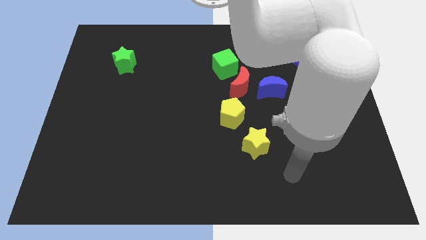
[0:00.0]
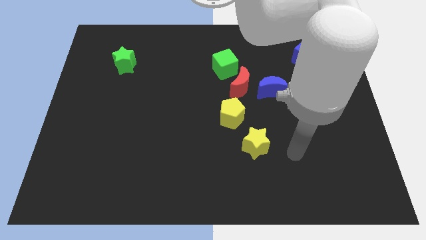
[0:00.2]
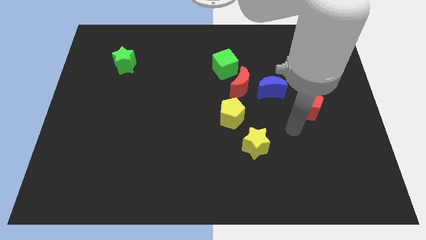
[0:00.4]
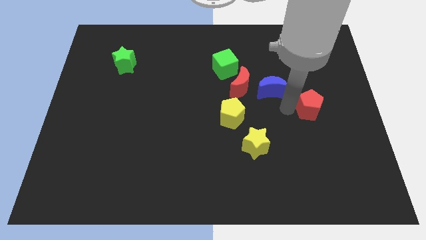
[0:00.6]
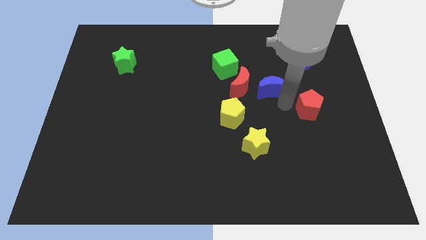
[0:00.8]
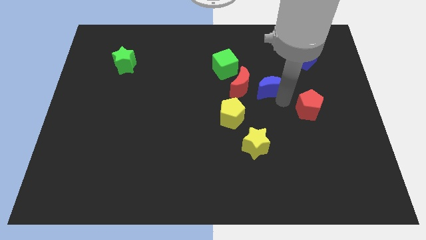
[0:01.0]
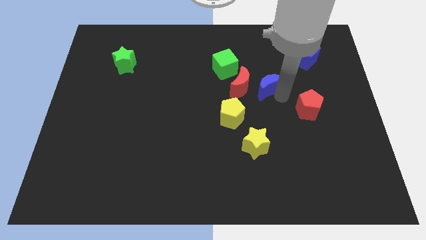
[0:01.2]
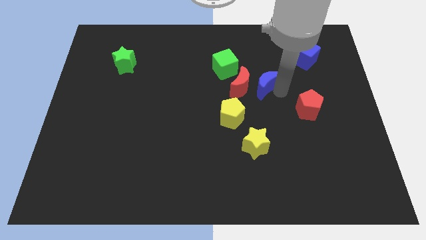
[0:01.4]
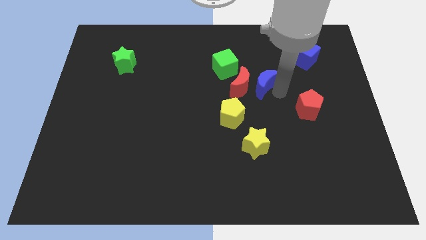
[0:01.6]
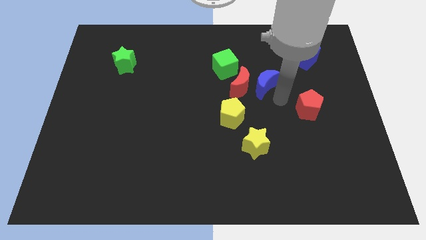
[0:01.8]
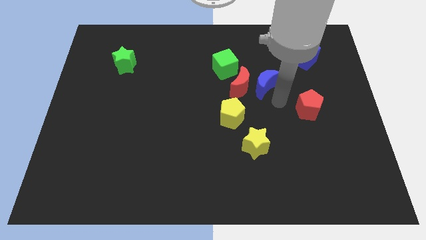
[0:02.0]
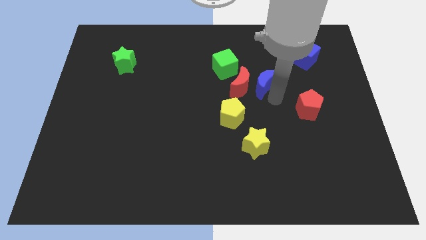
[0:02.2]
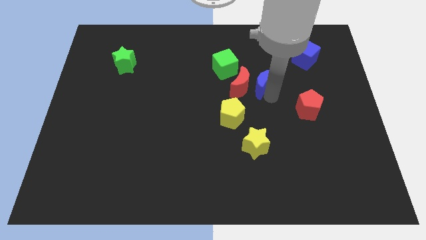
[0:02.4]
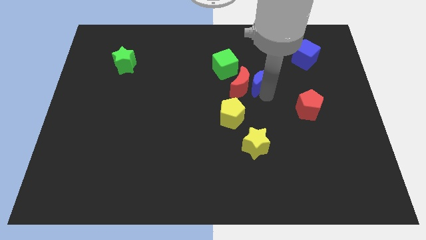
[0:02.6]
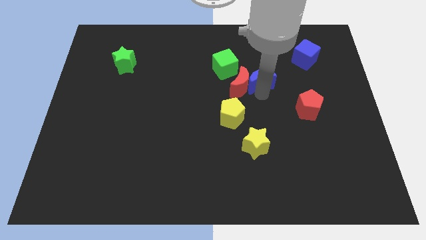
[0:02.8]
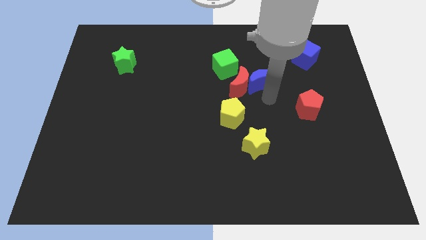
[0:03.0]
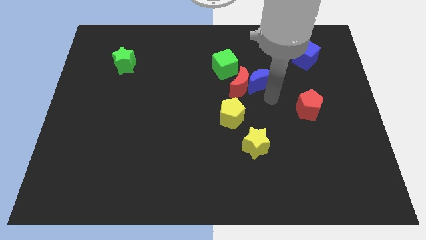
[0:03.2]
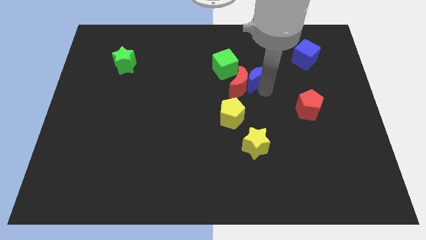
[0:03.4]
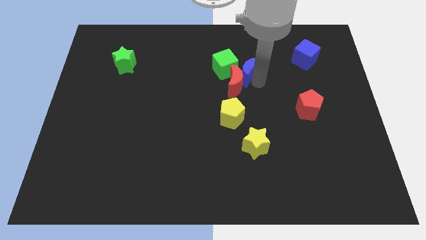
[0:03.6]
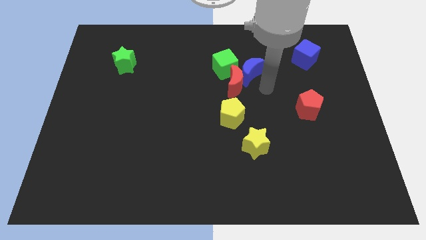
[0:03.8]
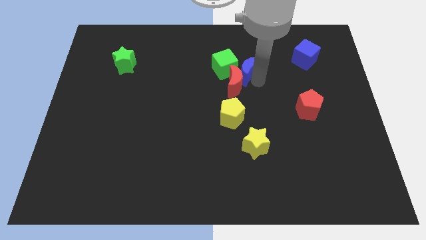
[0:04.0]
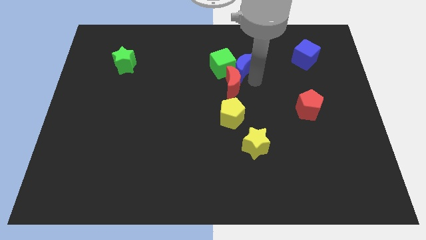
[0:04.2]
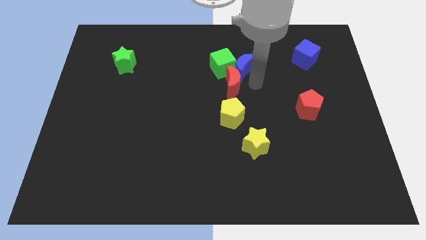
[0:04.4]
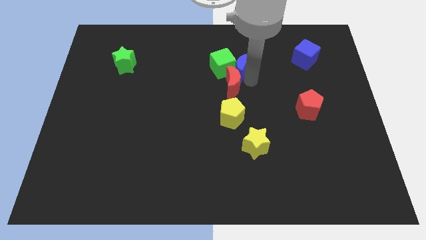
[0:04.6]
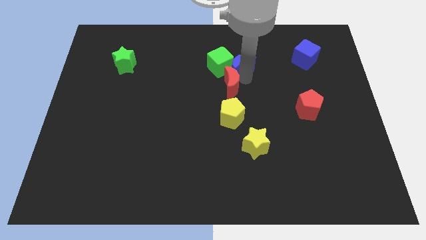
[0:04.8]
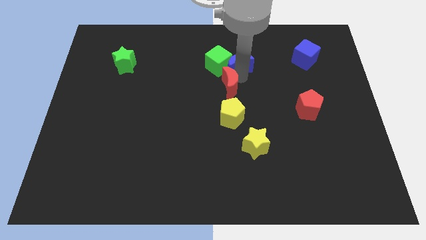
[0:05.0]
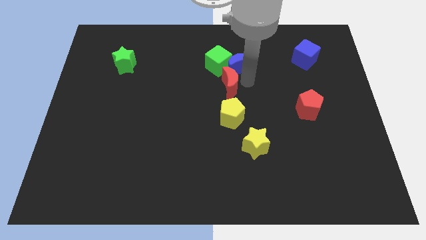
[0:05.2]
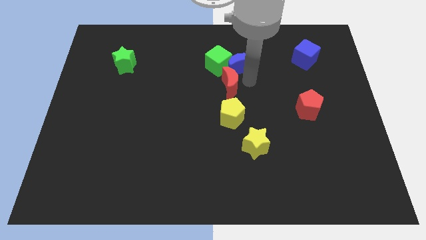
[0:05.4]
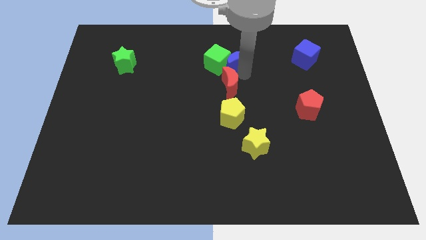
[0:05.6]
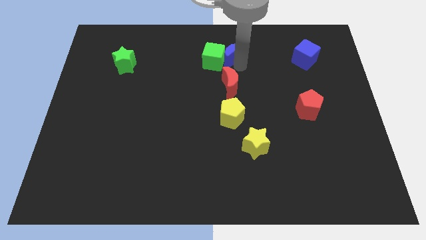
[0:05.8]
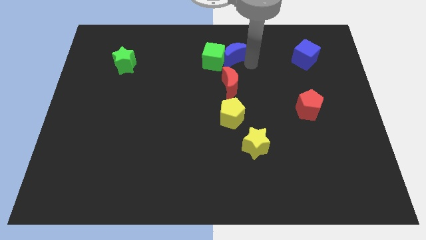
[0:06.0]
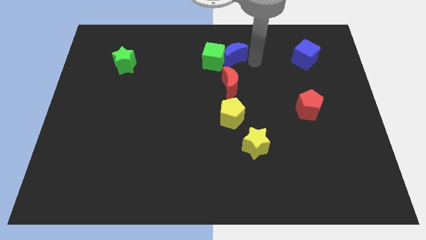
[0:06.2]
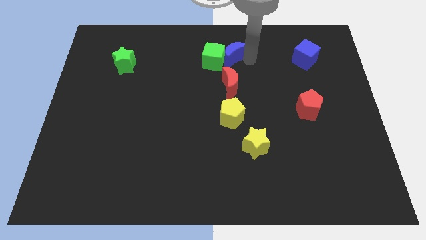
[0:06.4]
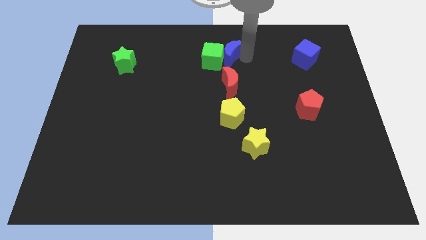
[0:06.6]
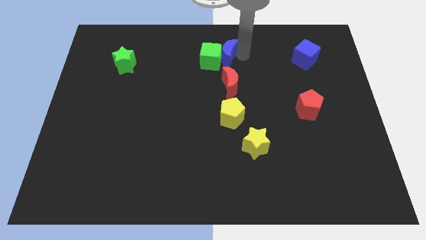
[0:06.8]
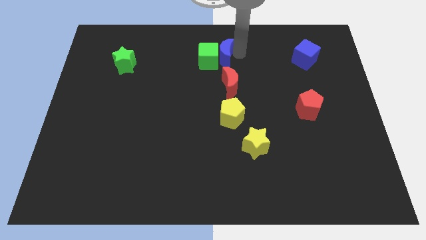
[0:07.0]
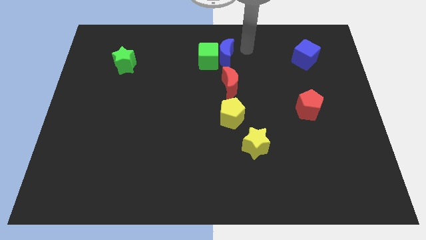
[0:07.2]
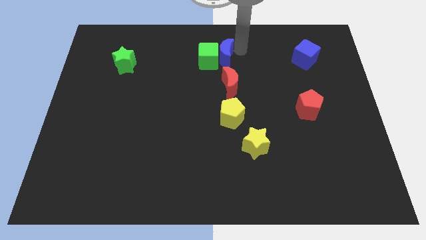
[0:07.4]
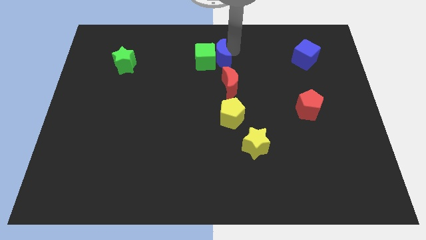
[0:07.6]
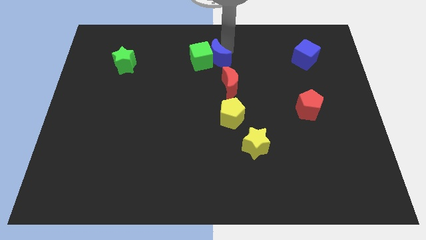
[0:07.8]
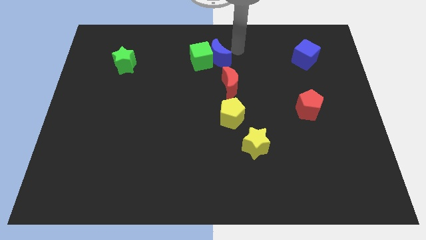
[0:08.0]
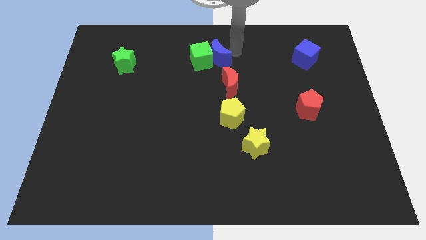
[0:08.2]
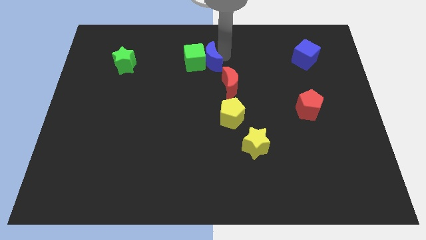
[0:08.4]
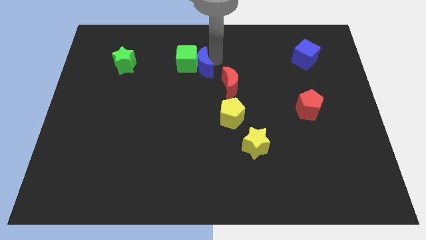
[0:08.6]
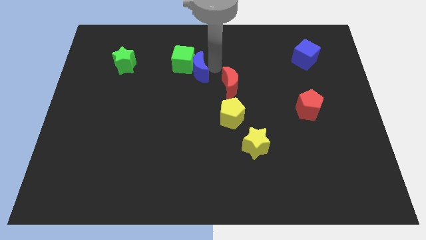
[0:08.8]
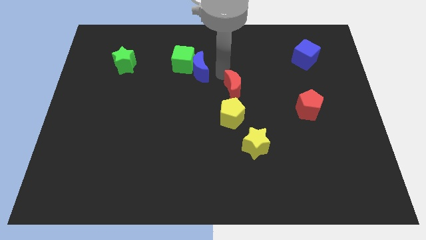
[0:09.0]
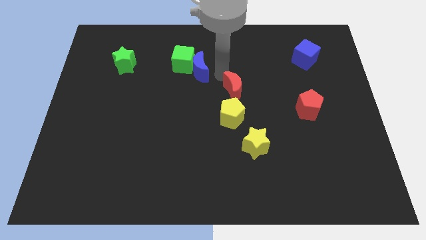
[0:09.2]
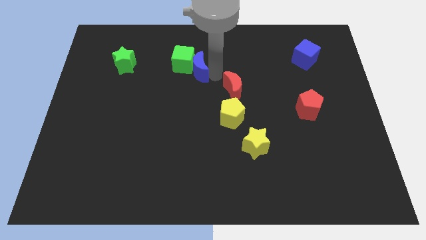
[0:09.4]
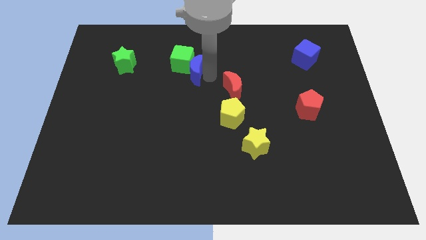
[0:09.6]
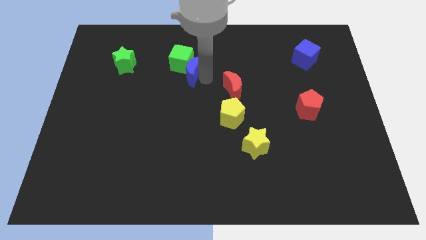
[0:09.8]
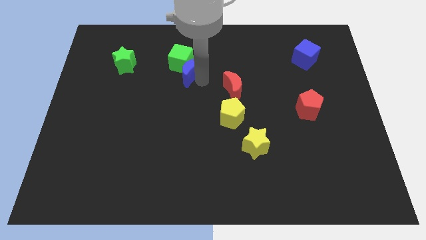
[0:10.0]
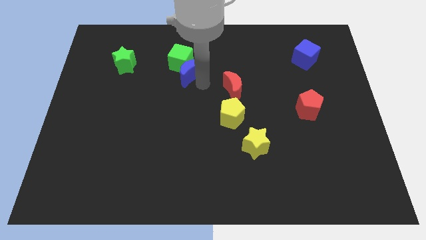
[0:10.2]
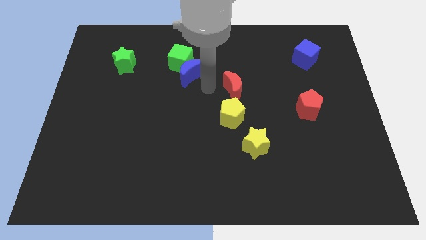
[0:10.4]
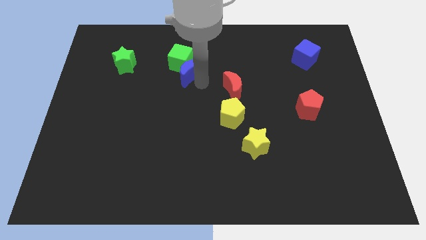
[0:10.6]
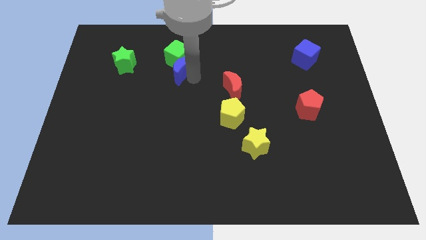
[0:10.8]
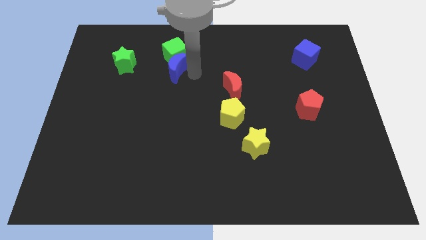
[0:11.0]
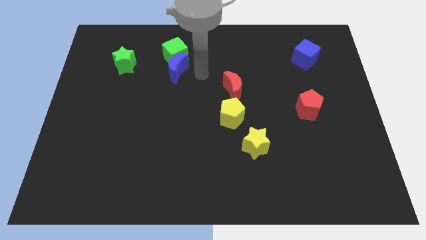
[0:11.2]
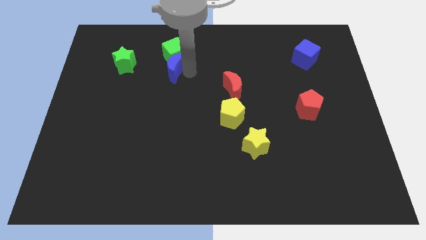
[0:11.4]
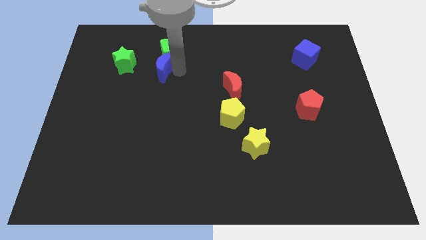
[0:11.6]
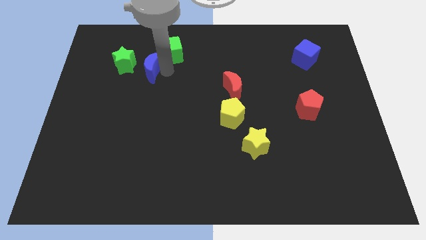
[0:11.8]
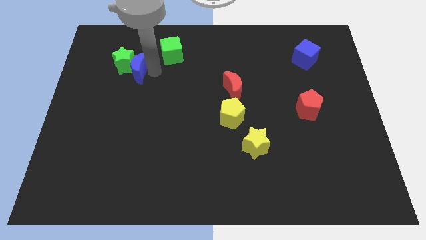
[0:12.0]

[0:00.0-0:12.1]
slide the blue moon towards the green star

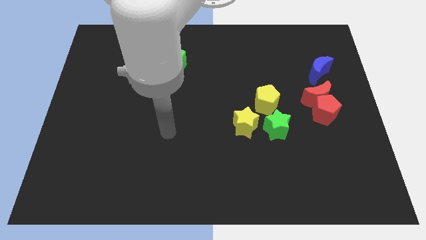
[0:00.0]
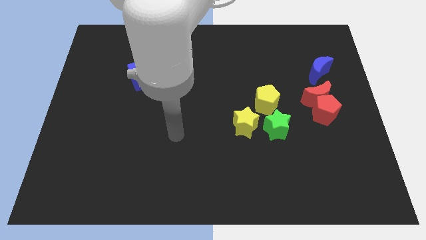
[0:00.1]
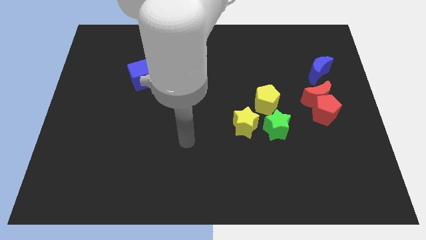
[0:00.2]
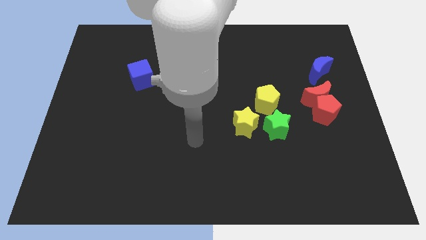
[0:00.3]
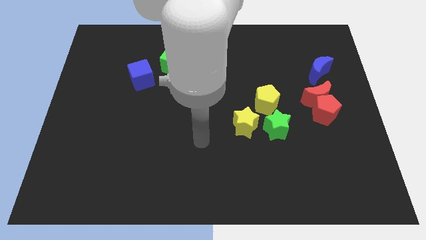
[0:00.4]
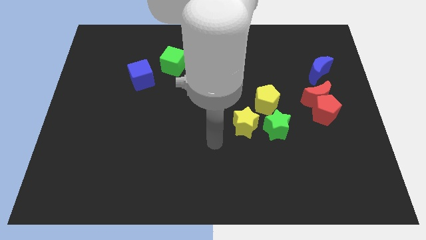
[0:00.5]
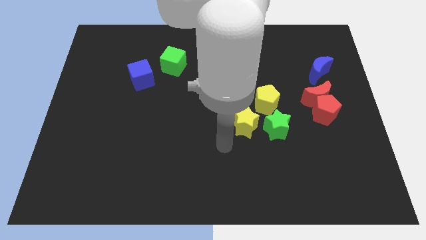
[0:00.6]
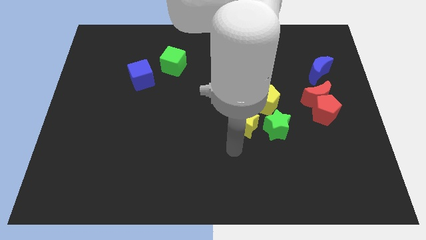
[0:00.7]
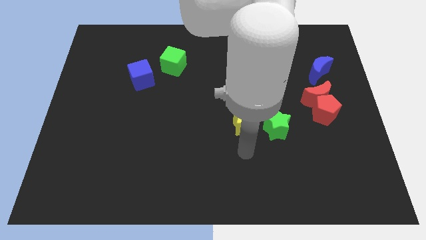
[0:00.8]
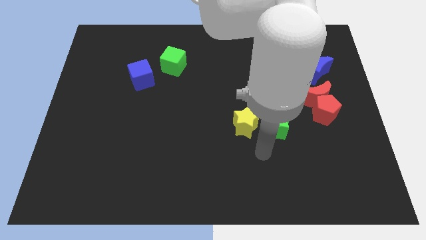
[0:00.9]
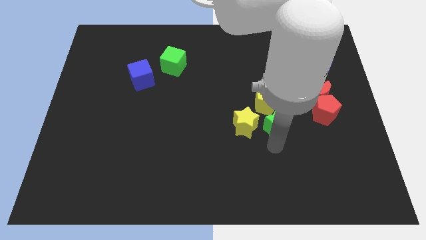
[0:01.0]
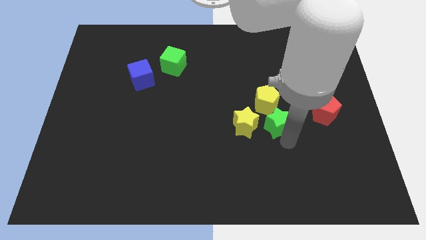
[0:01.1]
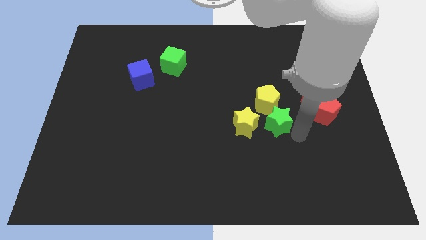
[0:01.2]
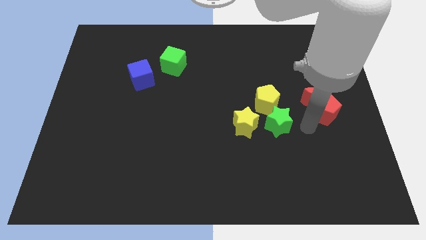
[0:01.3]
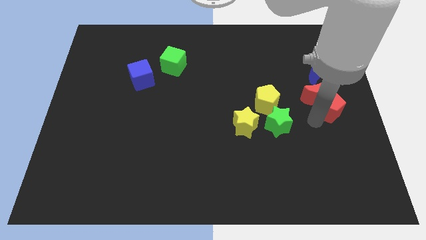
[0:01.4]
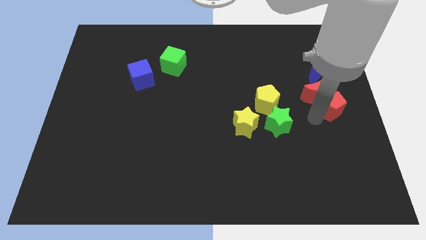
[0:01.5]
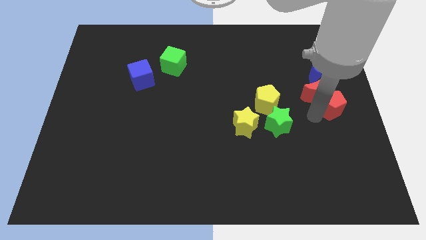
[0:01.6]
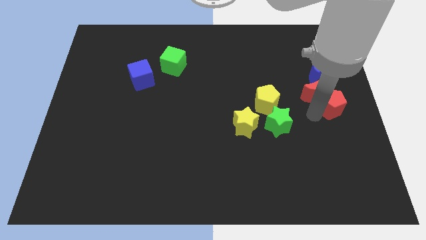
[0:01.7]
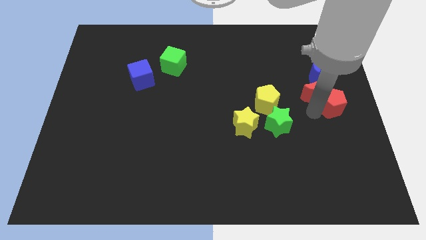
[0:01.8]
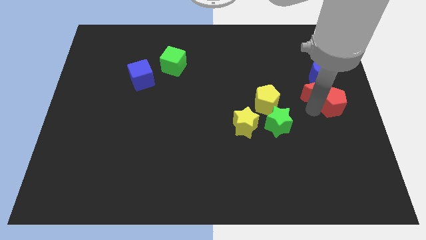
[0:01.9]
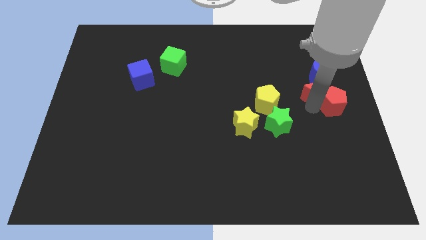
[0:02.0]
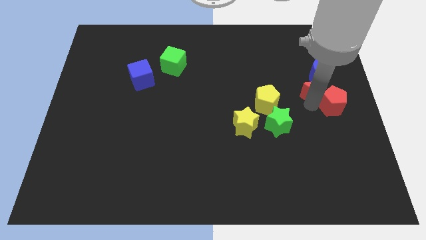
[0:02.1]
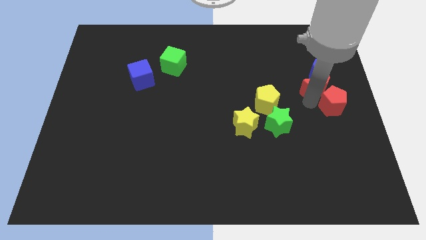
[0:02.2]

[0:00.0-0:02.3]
slide the red moon towards the blue moon
